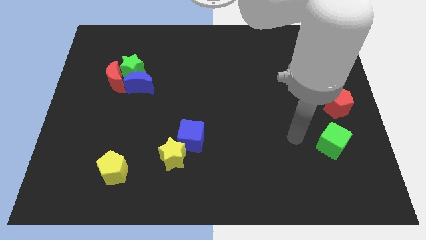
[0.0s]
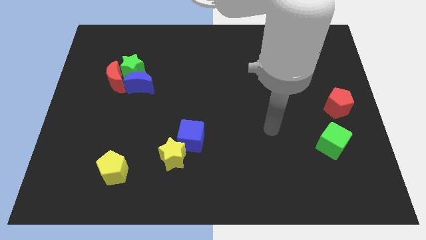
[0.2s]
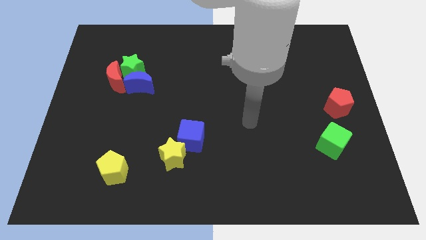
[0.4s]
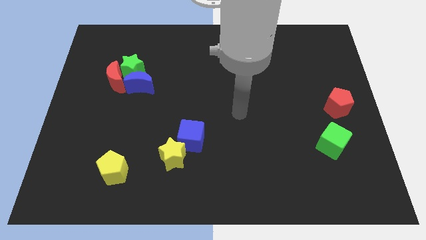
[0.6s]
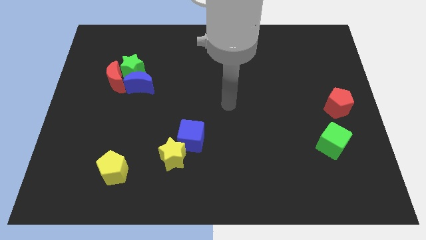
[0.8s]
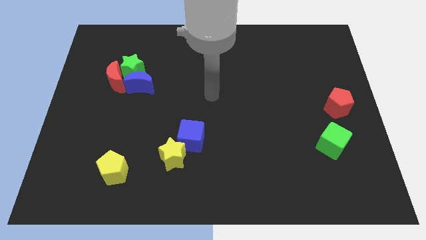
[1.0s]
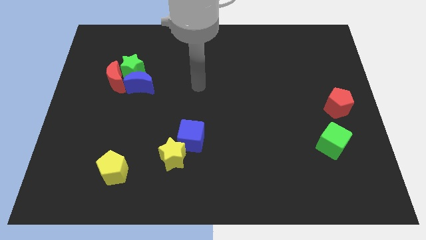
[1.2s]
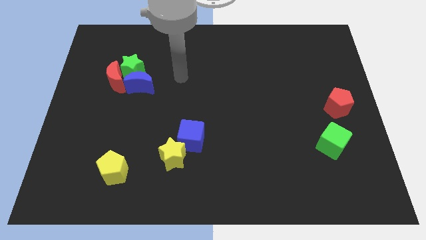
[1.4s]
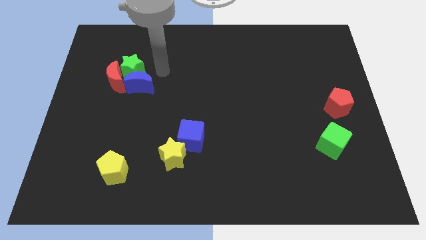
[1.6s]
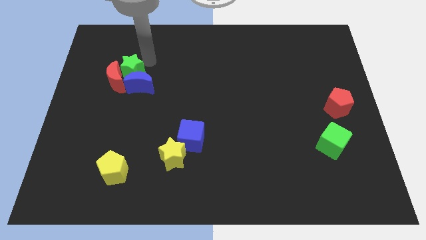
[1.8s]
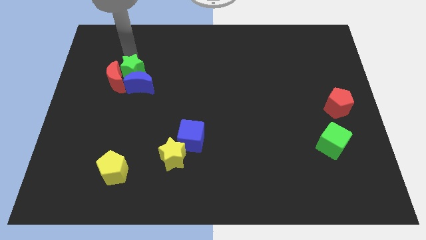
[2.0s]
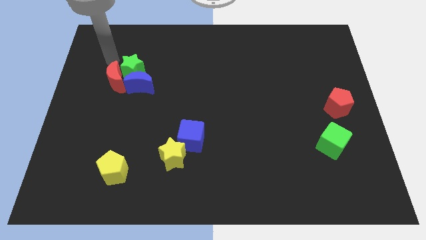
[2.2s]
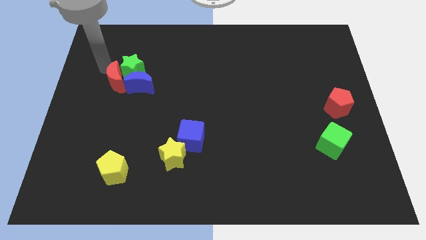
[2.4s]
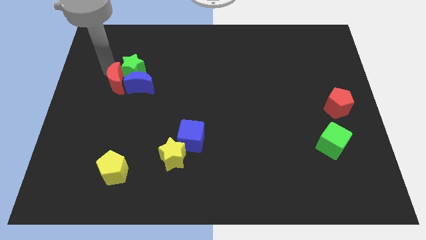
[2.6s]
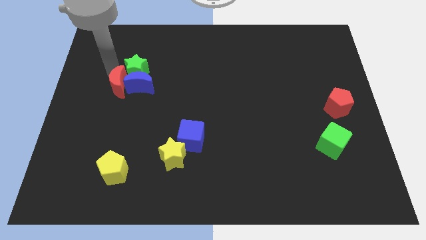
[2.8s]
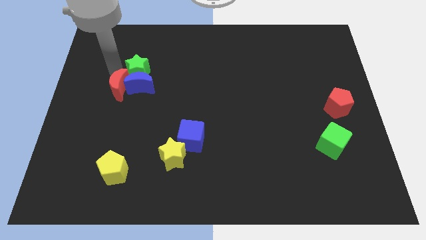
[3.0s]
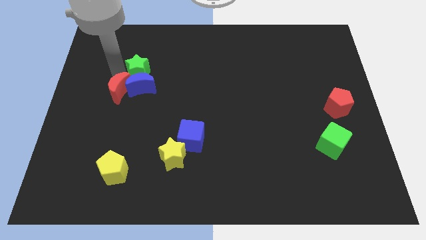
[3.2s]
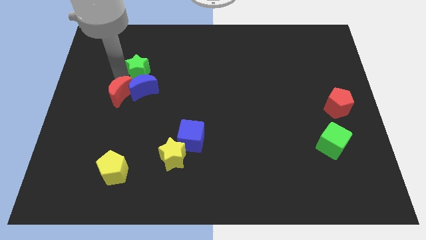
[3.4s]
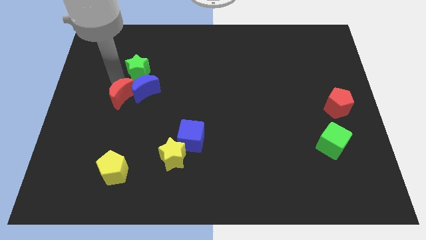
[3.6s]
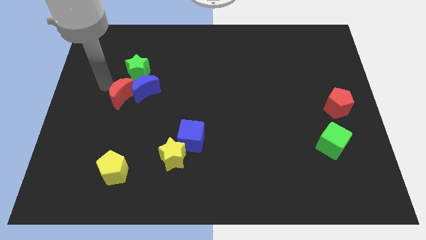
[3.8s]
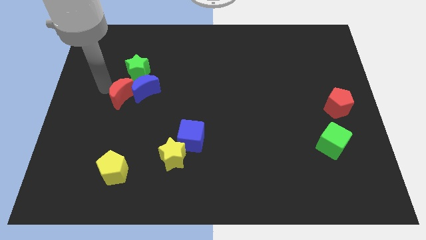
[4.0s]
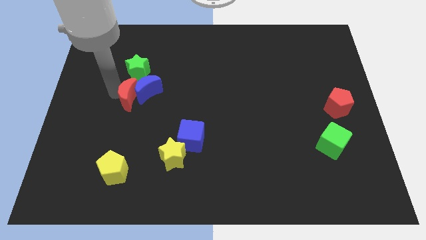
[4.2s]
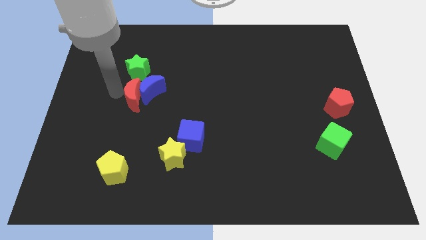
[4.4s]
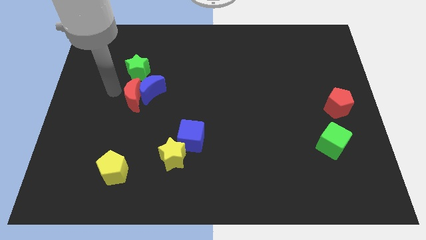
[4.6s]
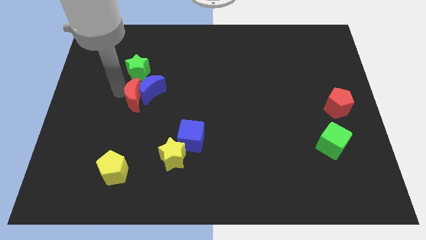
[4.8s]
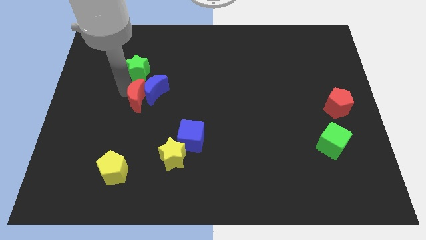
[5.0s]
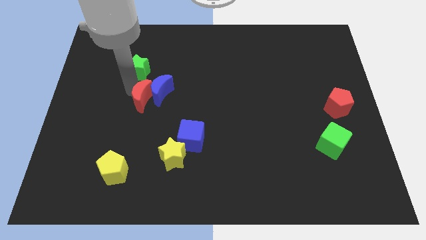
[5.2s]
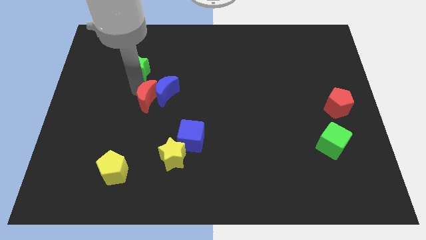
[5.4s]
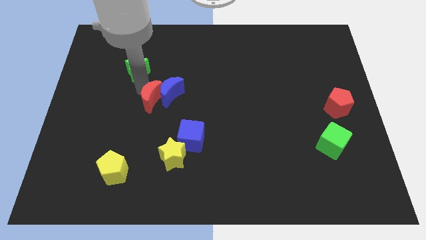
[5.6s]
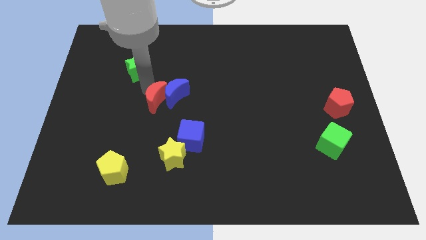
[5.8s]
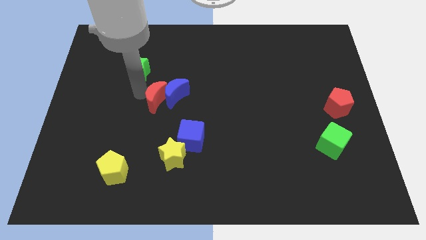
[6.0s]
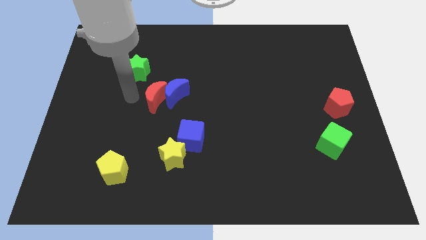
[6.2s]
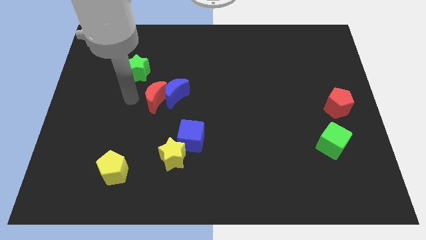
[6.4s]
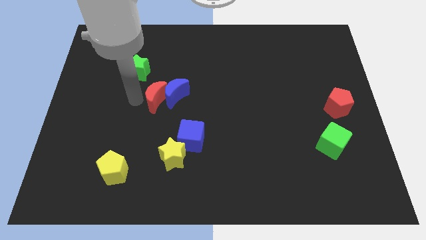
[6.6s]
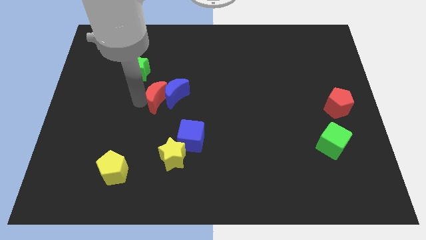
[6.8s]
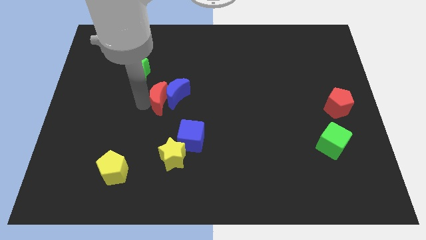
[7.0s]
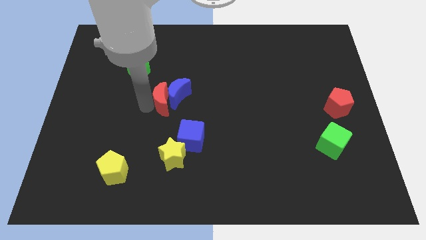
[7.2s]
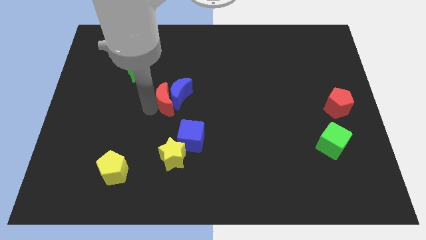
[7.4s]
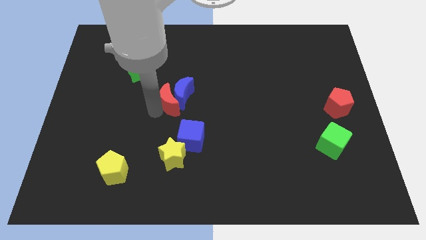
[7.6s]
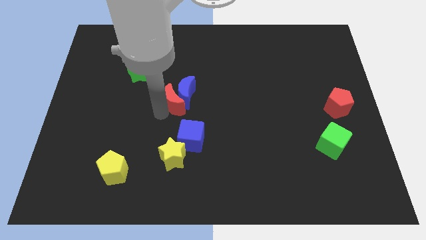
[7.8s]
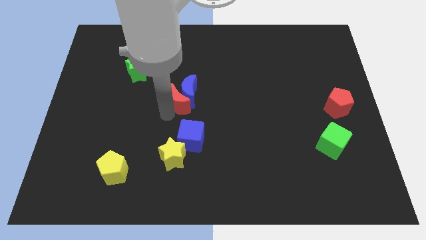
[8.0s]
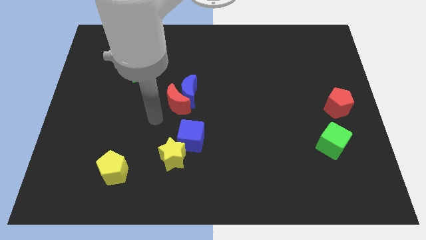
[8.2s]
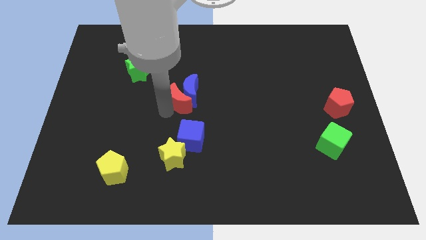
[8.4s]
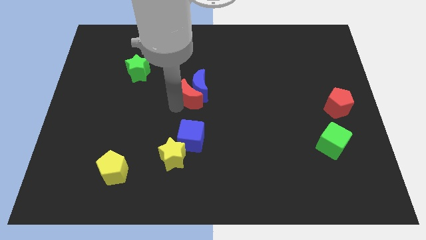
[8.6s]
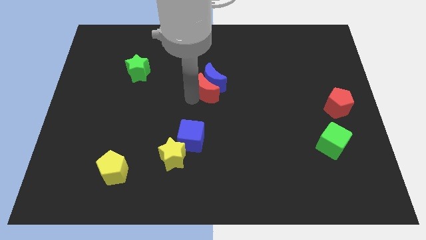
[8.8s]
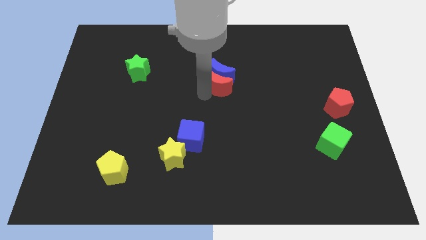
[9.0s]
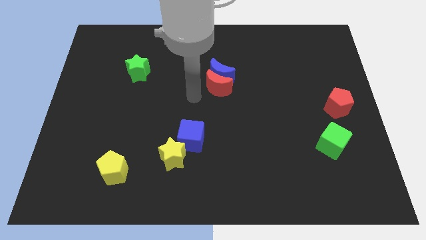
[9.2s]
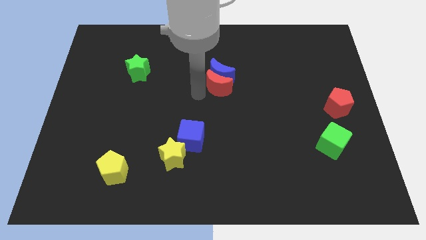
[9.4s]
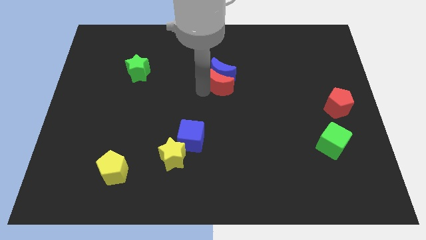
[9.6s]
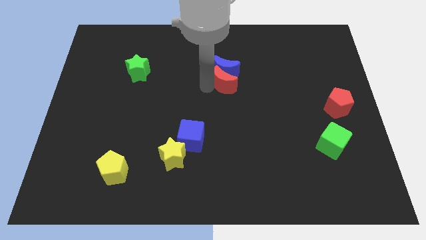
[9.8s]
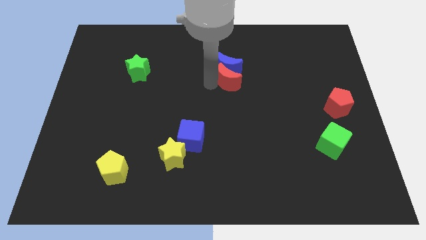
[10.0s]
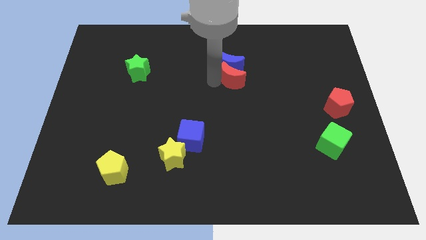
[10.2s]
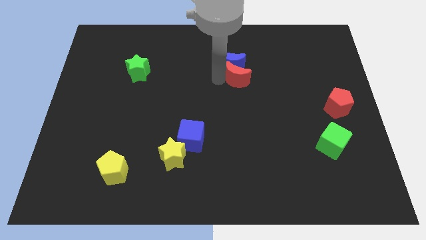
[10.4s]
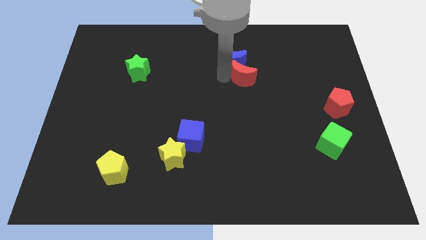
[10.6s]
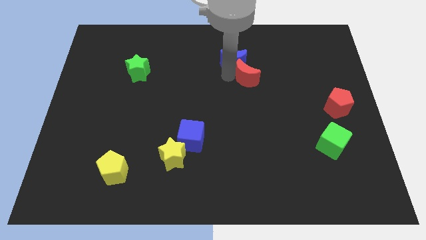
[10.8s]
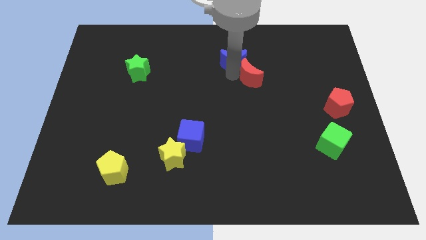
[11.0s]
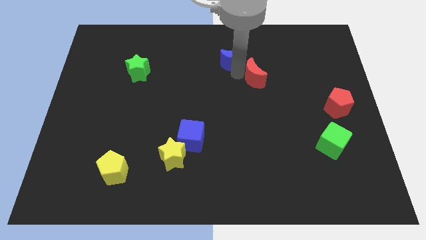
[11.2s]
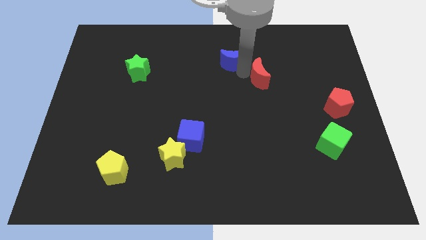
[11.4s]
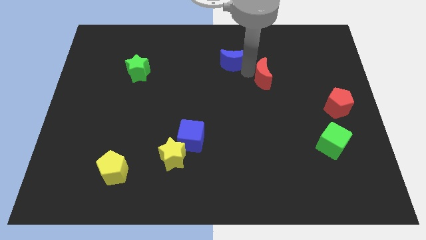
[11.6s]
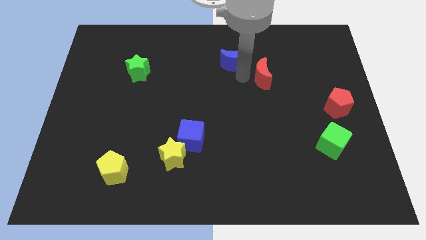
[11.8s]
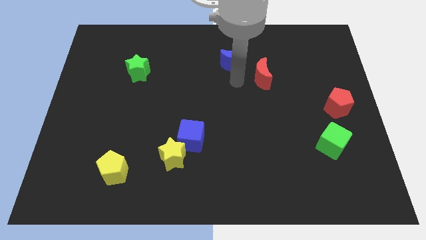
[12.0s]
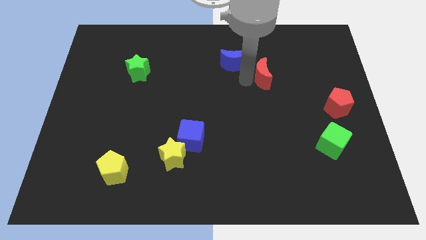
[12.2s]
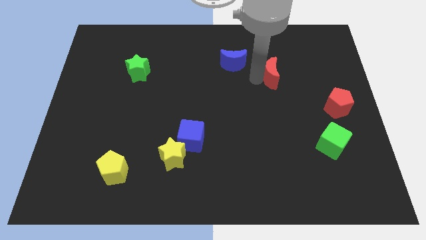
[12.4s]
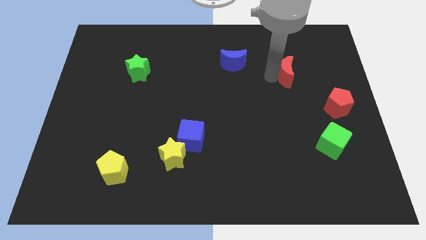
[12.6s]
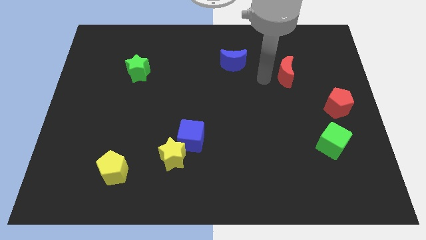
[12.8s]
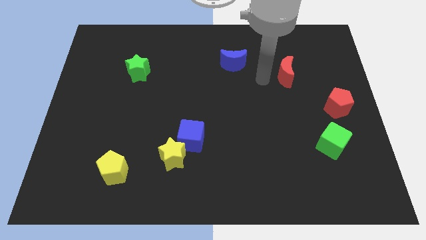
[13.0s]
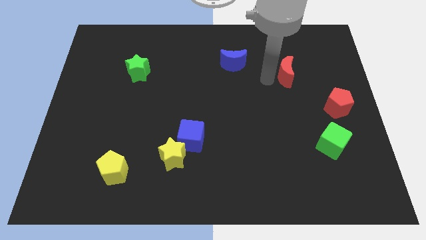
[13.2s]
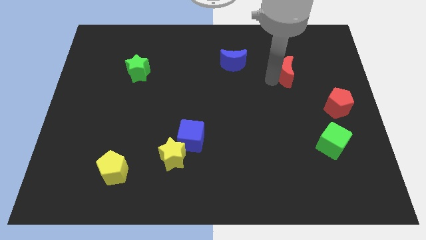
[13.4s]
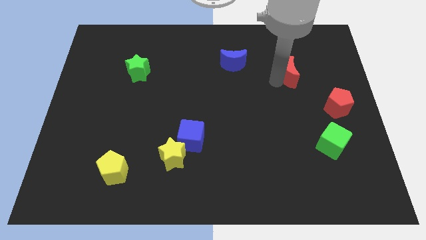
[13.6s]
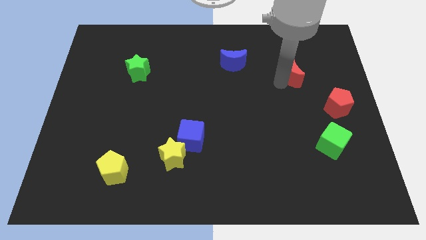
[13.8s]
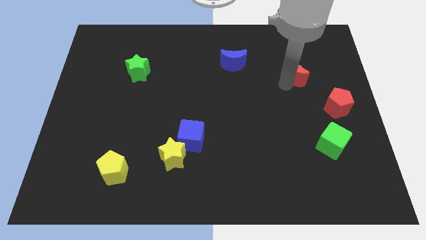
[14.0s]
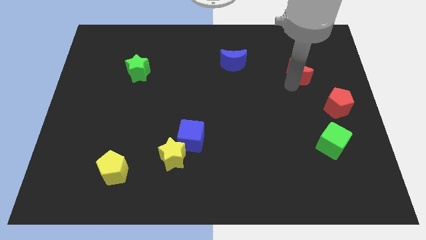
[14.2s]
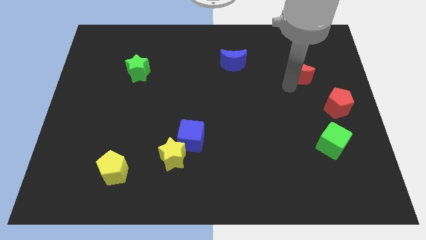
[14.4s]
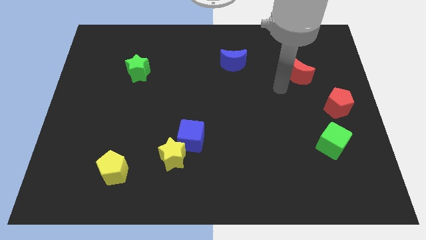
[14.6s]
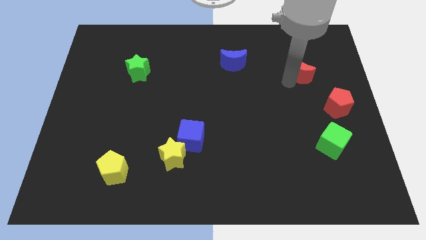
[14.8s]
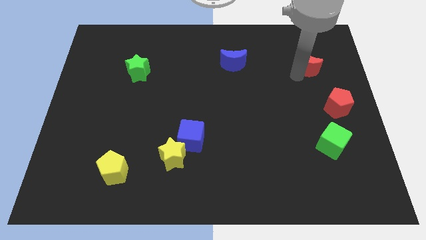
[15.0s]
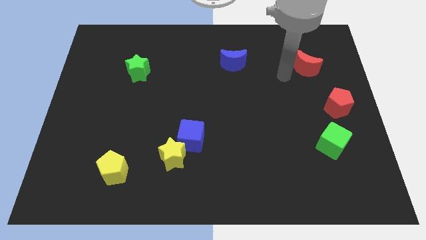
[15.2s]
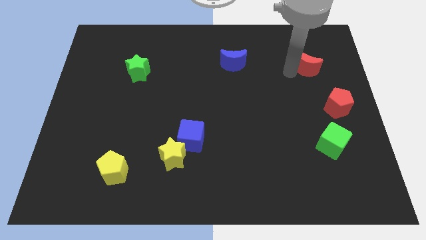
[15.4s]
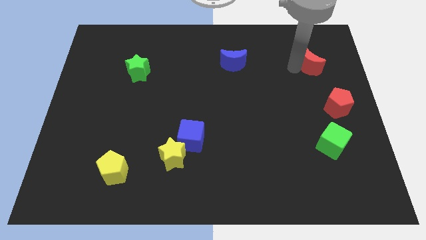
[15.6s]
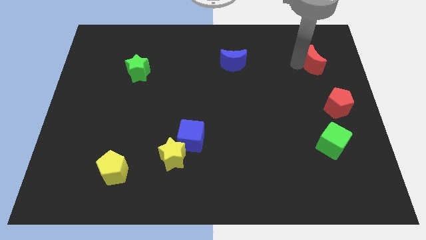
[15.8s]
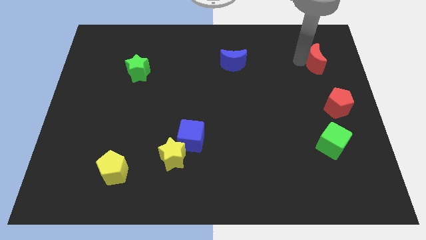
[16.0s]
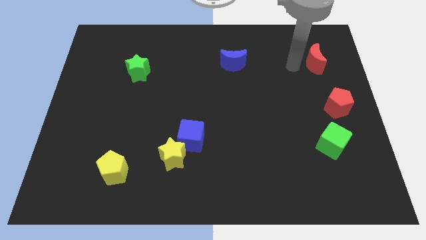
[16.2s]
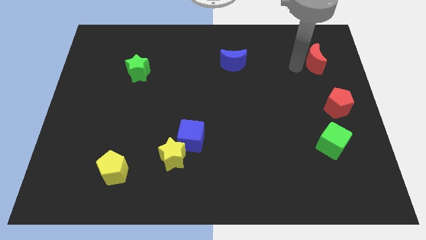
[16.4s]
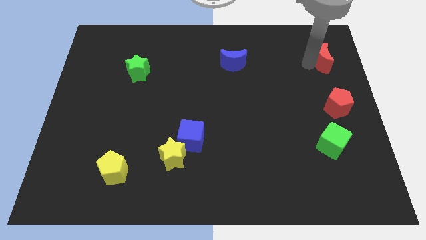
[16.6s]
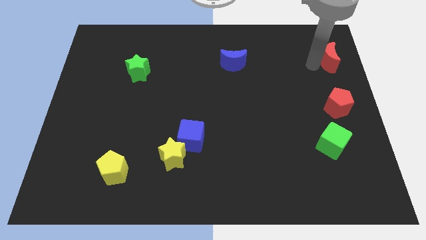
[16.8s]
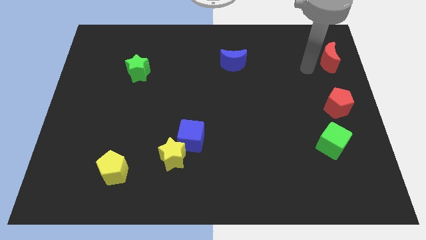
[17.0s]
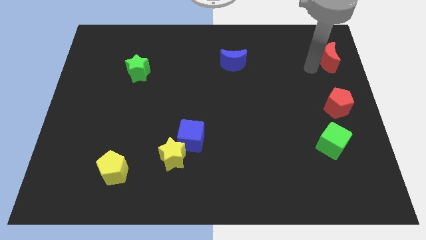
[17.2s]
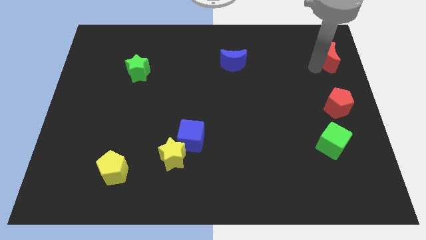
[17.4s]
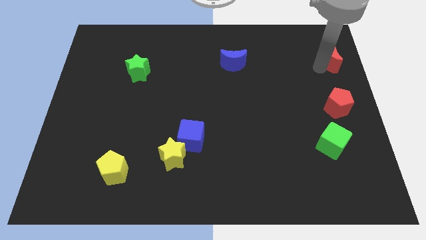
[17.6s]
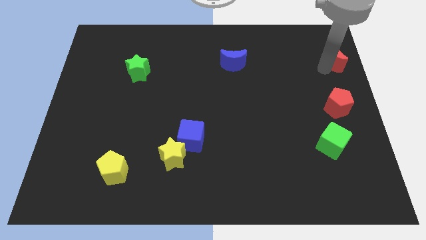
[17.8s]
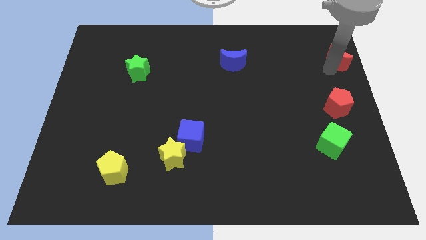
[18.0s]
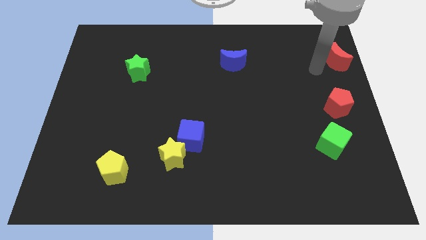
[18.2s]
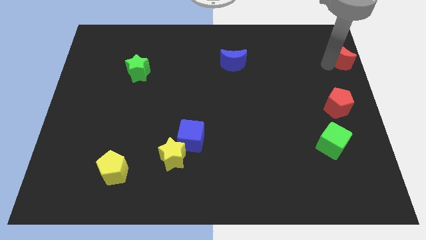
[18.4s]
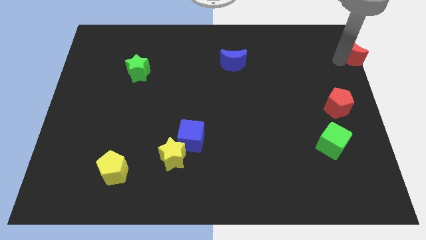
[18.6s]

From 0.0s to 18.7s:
slide the red moon to the top right
